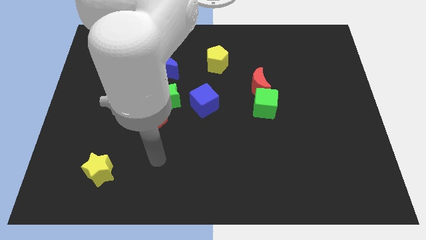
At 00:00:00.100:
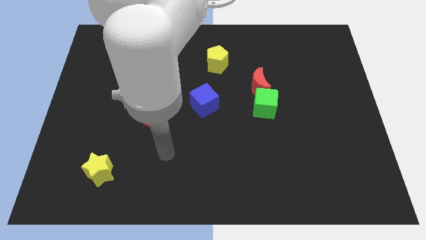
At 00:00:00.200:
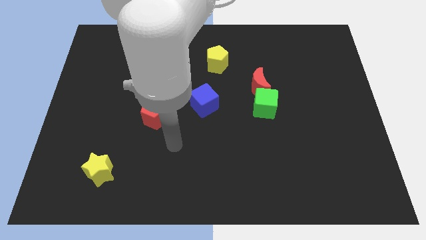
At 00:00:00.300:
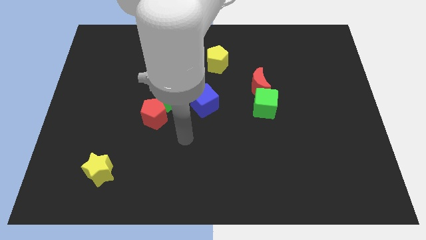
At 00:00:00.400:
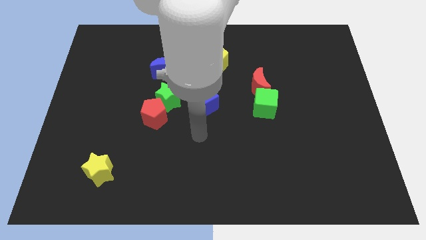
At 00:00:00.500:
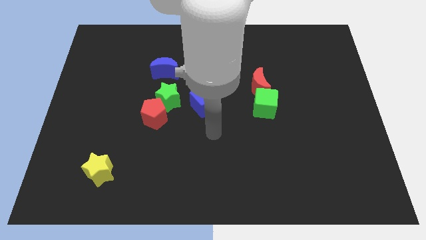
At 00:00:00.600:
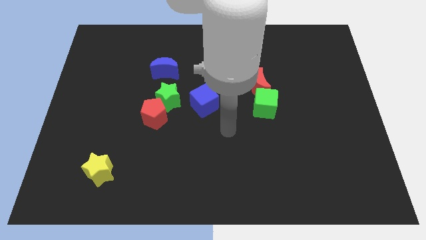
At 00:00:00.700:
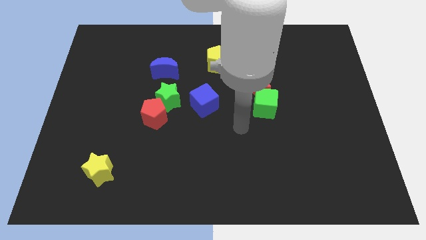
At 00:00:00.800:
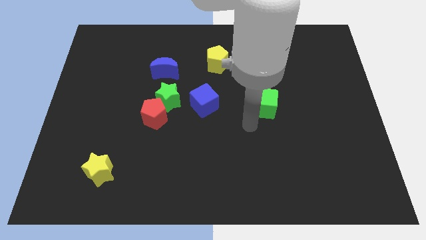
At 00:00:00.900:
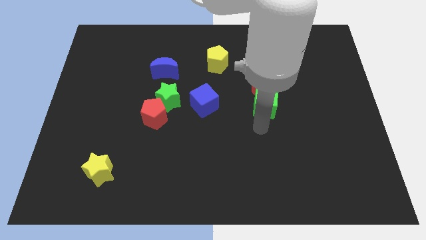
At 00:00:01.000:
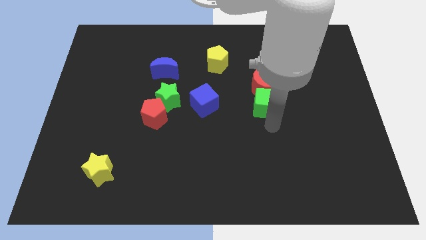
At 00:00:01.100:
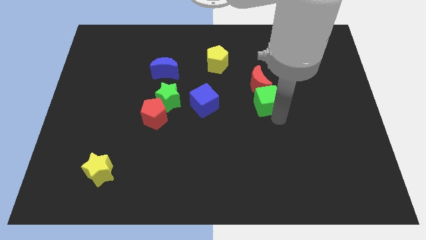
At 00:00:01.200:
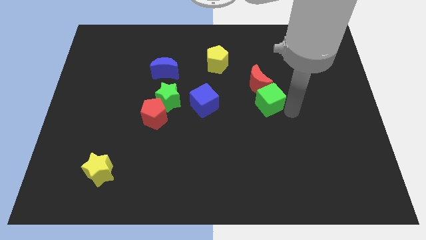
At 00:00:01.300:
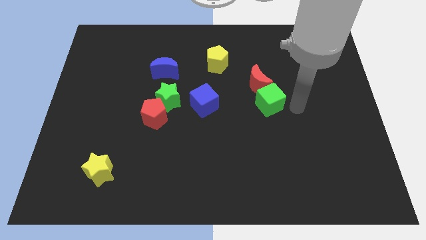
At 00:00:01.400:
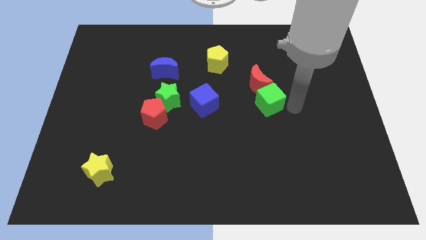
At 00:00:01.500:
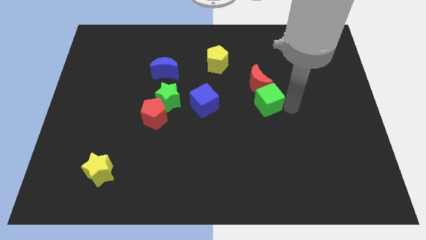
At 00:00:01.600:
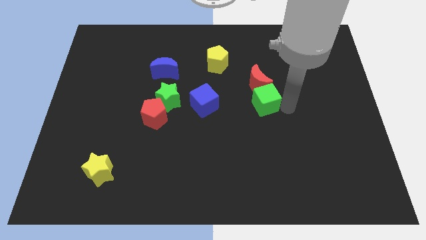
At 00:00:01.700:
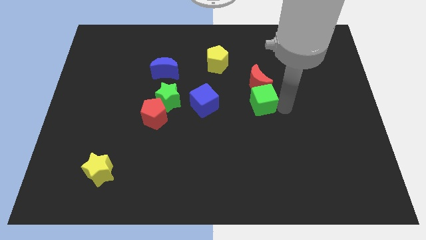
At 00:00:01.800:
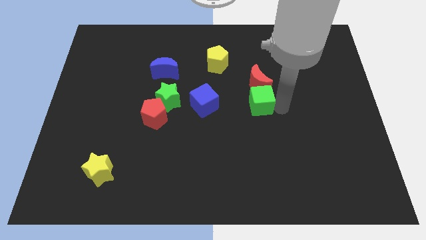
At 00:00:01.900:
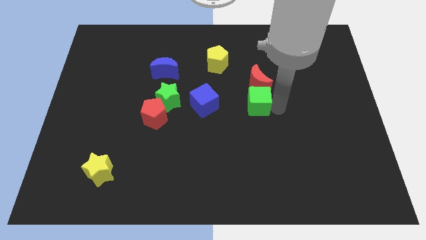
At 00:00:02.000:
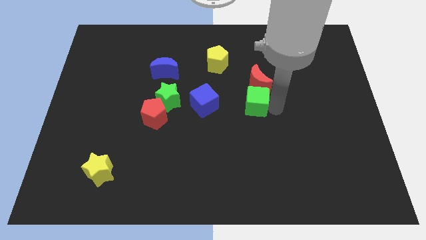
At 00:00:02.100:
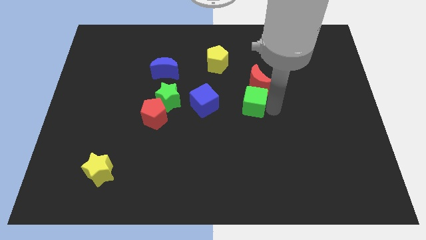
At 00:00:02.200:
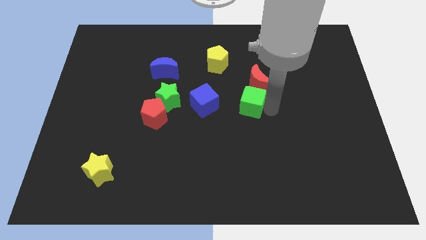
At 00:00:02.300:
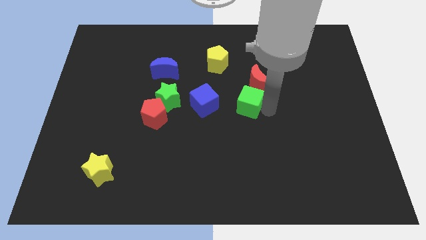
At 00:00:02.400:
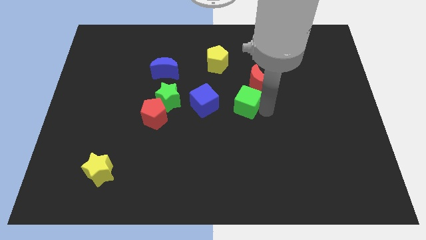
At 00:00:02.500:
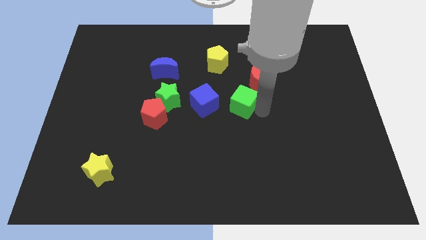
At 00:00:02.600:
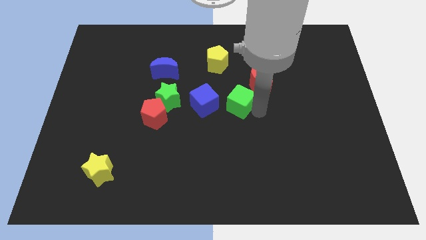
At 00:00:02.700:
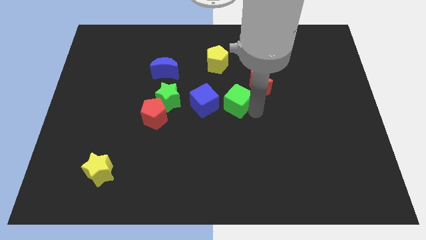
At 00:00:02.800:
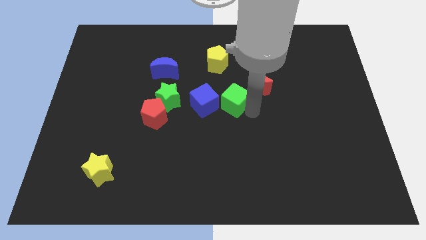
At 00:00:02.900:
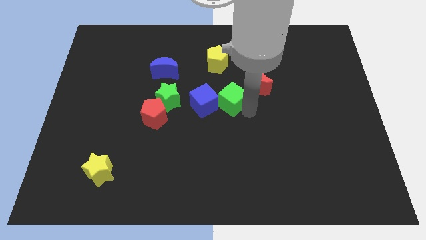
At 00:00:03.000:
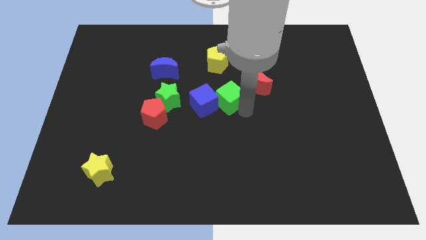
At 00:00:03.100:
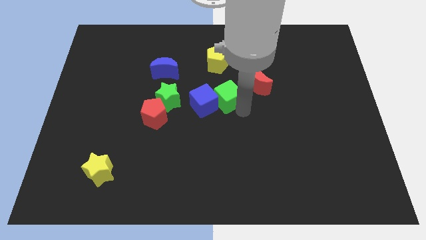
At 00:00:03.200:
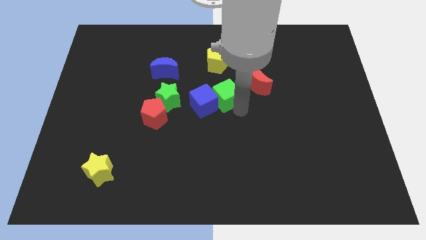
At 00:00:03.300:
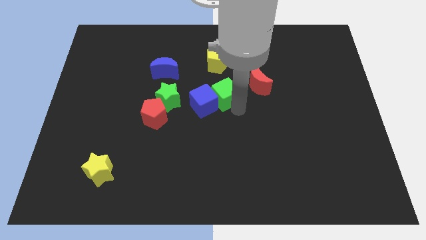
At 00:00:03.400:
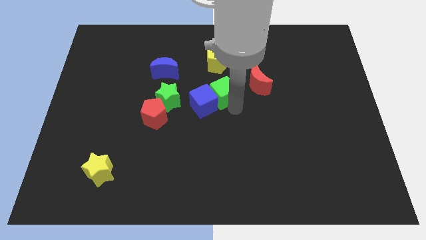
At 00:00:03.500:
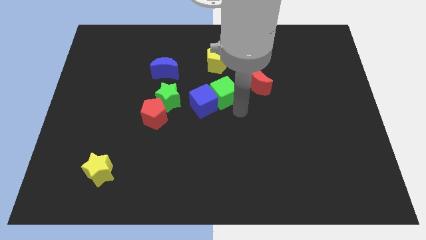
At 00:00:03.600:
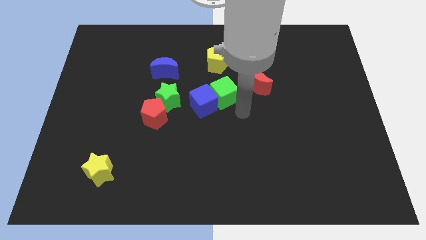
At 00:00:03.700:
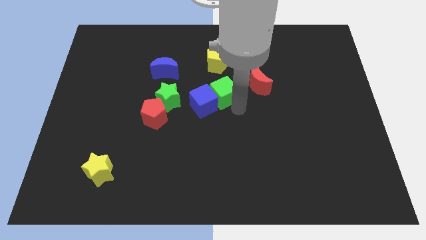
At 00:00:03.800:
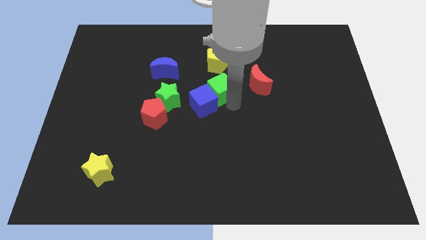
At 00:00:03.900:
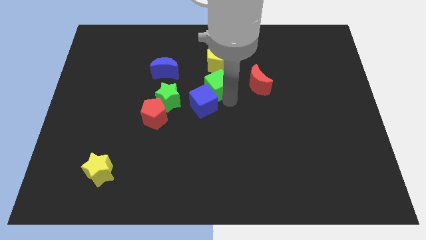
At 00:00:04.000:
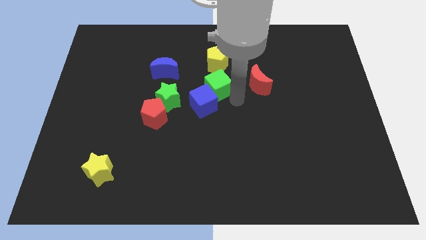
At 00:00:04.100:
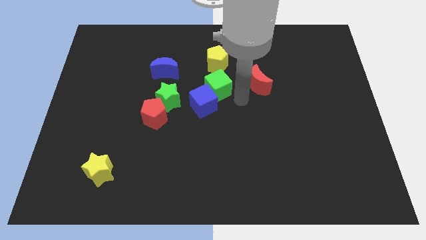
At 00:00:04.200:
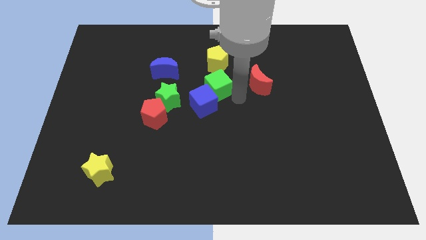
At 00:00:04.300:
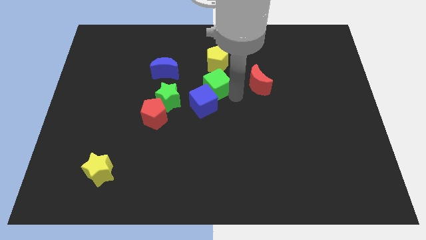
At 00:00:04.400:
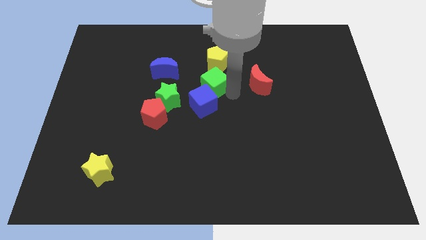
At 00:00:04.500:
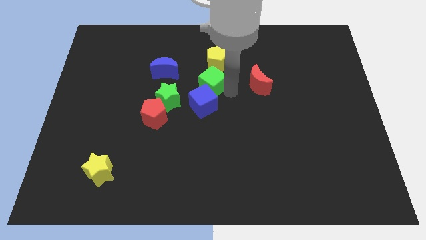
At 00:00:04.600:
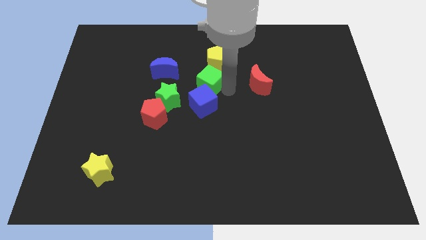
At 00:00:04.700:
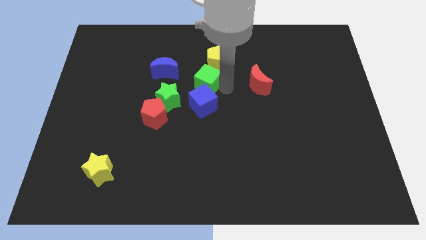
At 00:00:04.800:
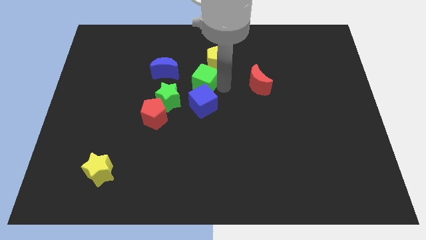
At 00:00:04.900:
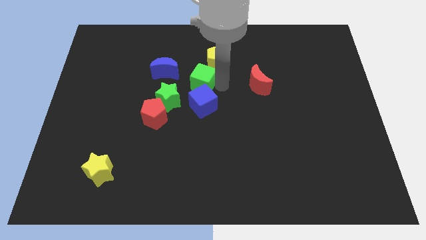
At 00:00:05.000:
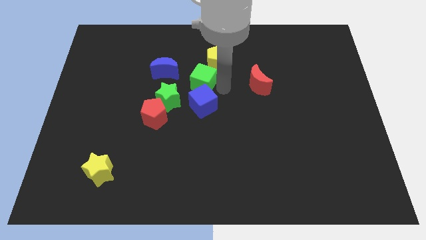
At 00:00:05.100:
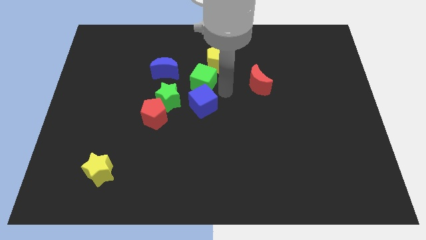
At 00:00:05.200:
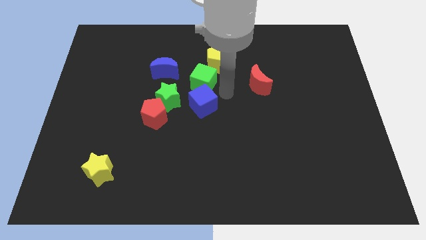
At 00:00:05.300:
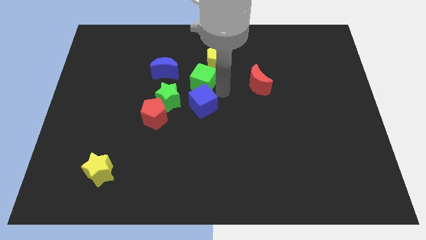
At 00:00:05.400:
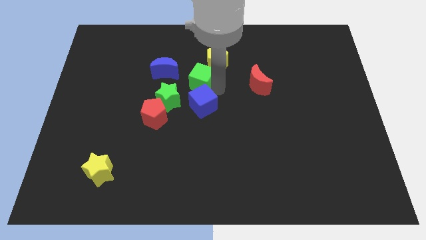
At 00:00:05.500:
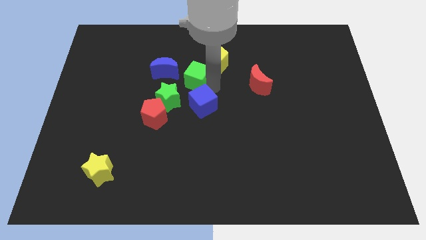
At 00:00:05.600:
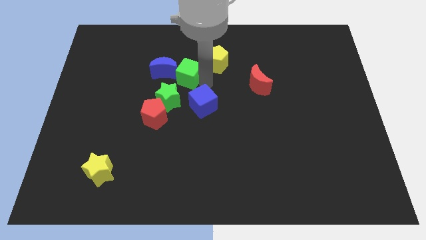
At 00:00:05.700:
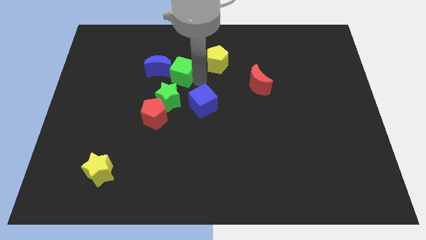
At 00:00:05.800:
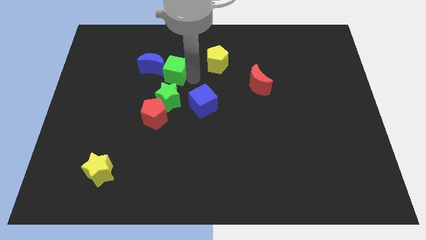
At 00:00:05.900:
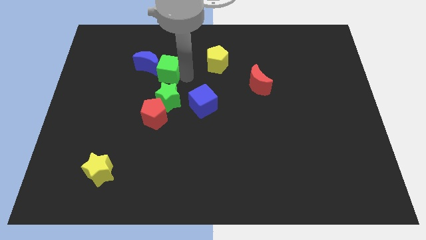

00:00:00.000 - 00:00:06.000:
slide the green cube towards the blue moon

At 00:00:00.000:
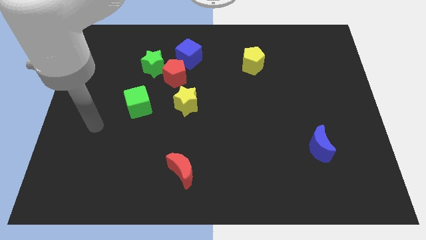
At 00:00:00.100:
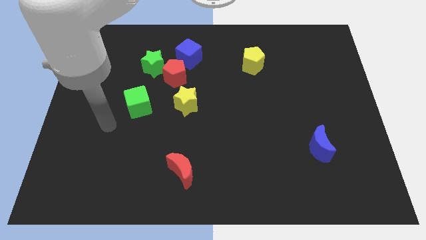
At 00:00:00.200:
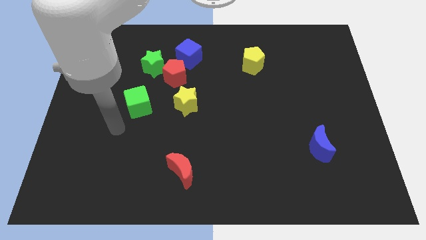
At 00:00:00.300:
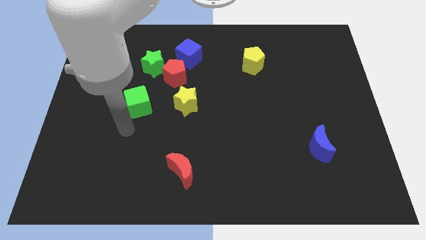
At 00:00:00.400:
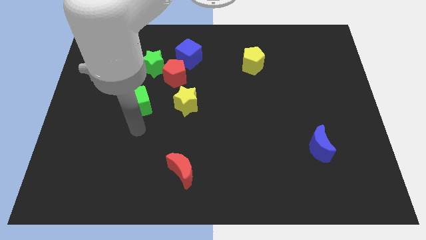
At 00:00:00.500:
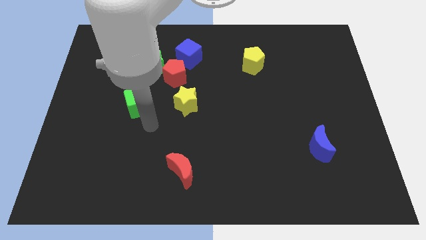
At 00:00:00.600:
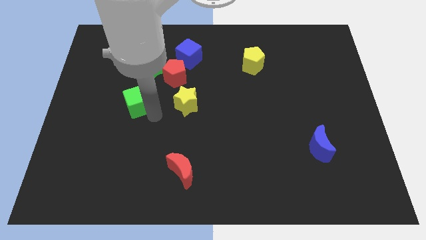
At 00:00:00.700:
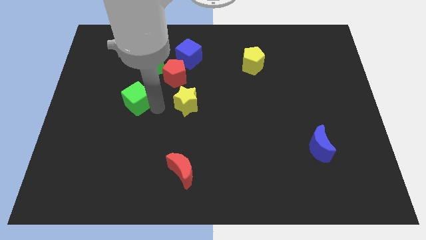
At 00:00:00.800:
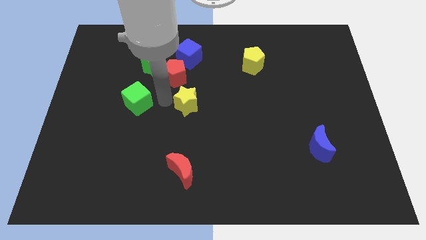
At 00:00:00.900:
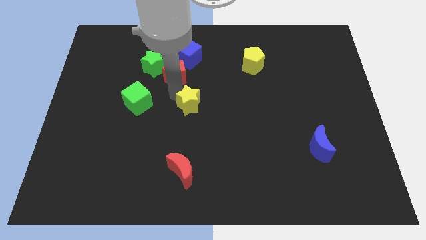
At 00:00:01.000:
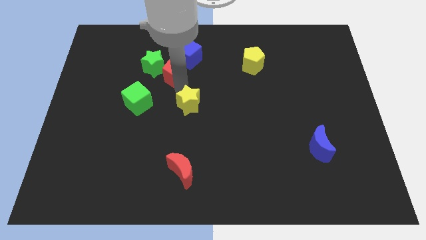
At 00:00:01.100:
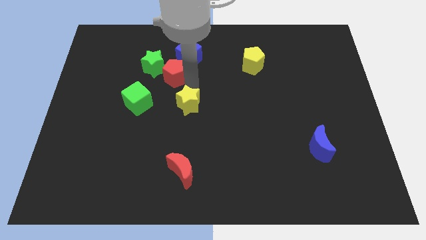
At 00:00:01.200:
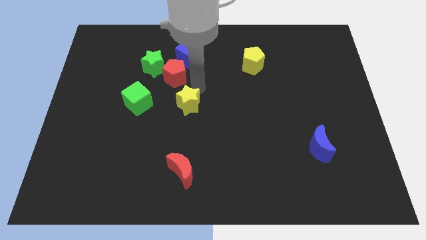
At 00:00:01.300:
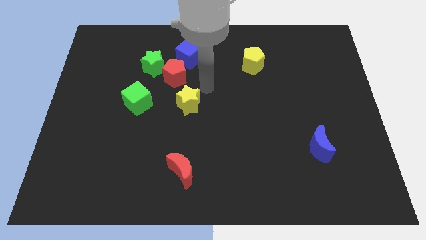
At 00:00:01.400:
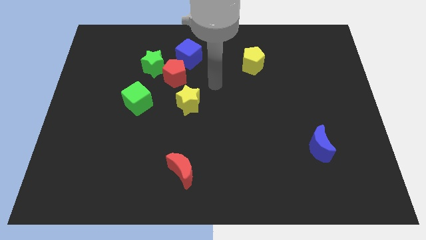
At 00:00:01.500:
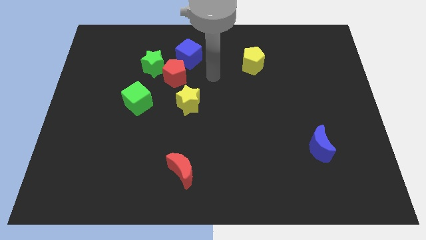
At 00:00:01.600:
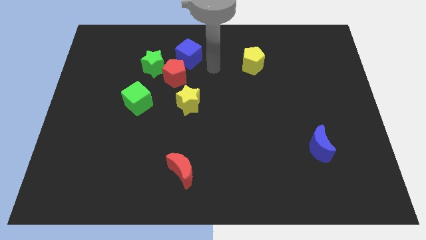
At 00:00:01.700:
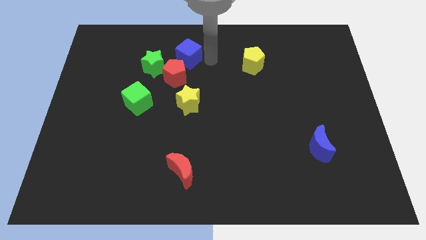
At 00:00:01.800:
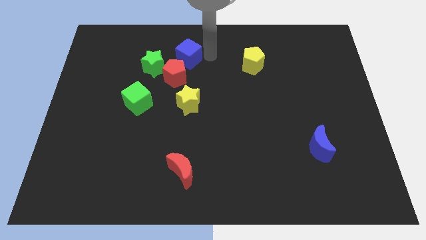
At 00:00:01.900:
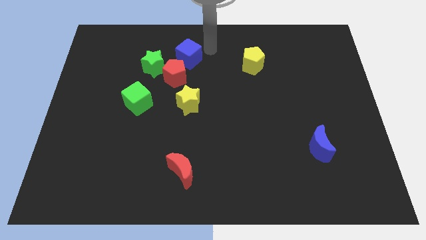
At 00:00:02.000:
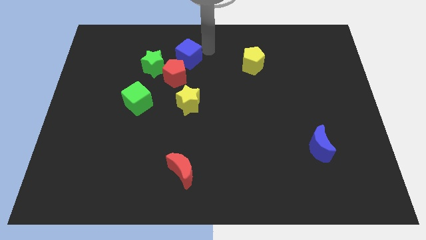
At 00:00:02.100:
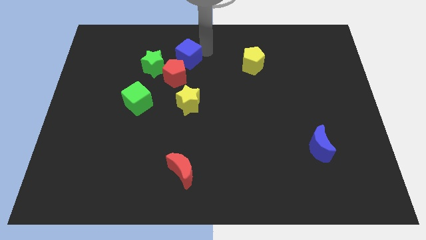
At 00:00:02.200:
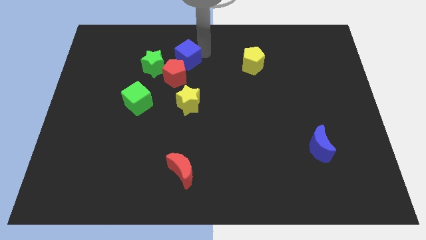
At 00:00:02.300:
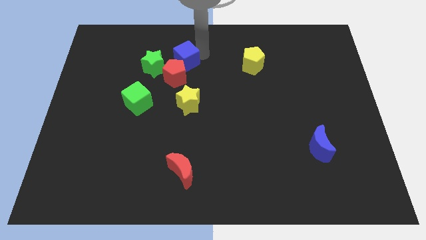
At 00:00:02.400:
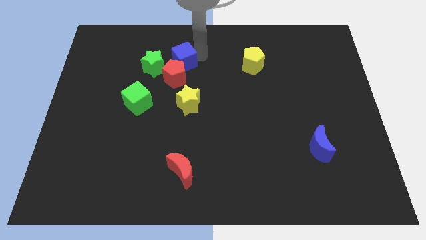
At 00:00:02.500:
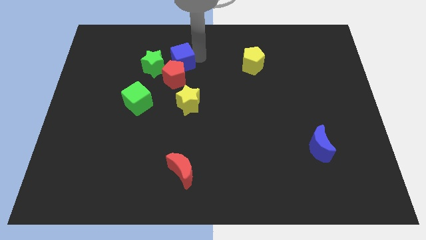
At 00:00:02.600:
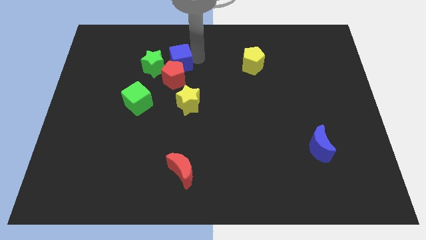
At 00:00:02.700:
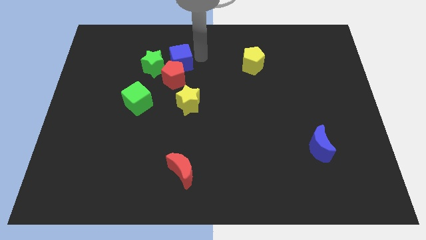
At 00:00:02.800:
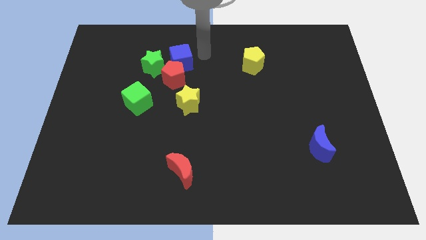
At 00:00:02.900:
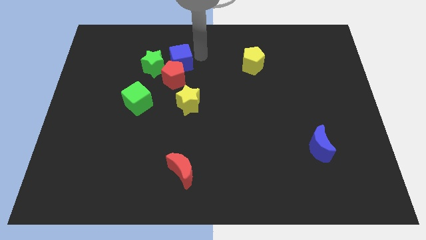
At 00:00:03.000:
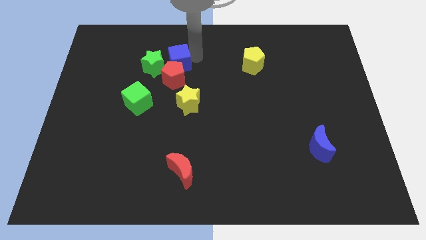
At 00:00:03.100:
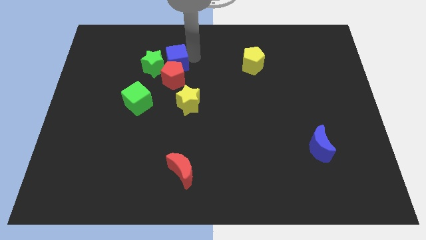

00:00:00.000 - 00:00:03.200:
slide the blue cube close to the green star
